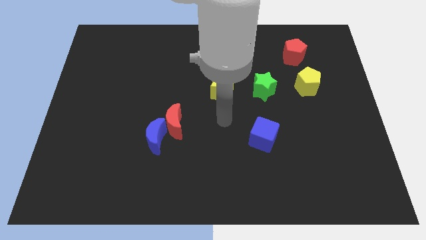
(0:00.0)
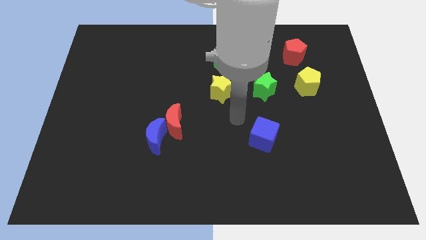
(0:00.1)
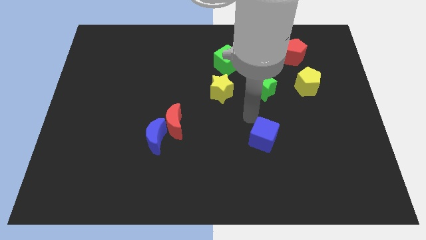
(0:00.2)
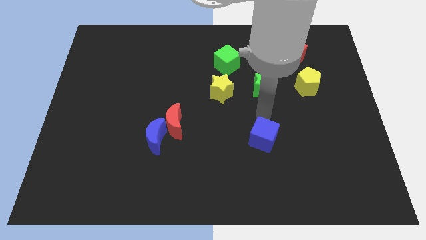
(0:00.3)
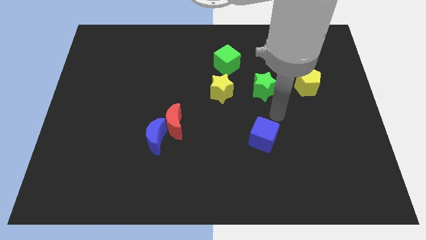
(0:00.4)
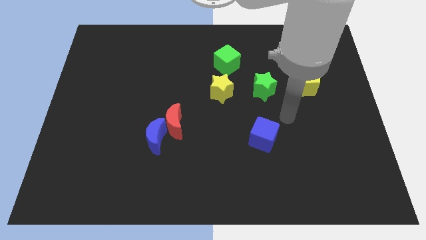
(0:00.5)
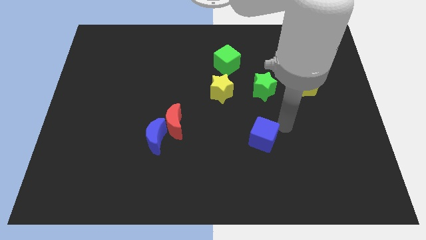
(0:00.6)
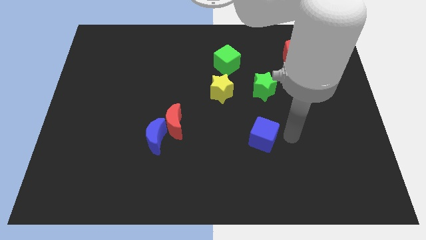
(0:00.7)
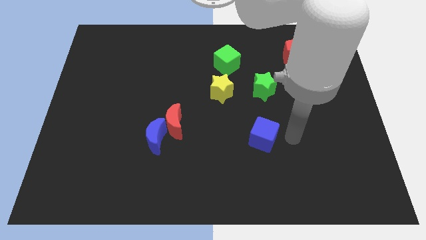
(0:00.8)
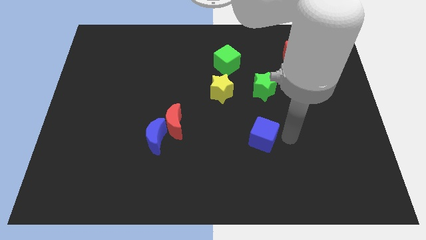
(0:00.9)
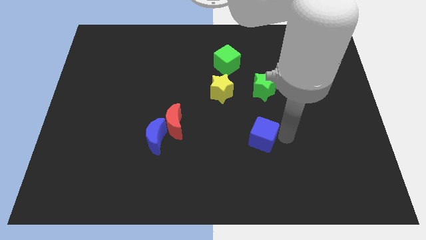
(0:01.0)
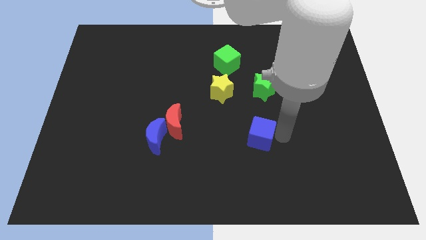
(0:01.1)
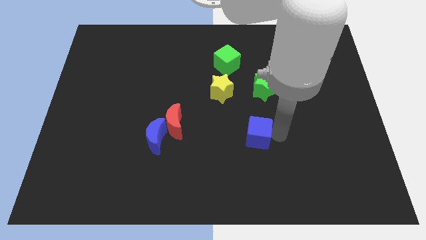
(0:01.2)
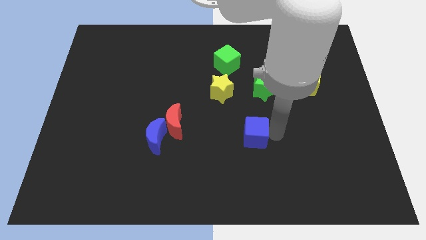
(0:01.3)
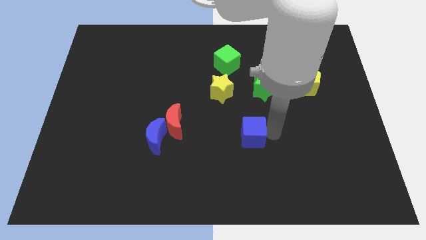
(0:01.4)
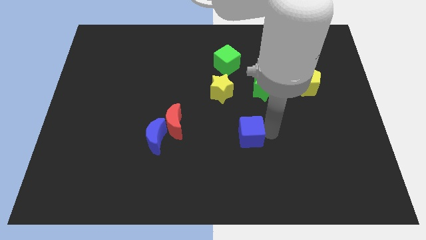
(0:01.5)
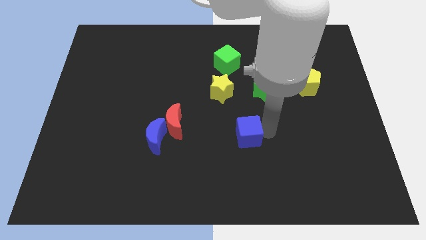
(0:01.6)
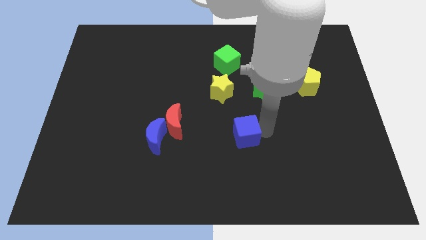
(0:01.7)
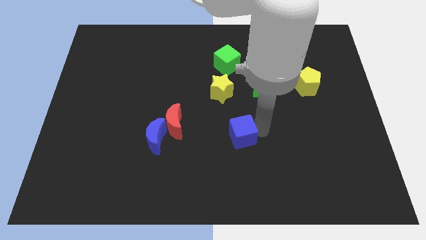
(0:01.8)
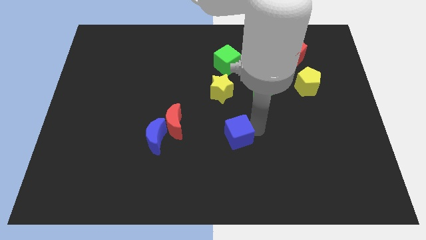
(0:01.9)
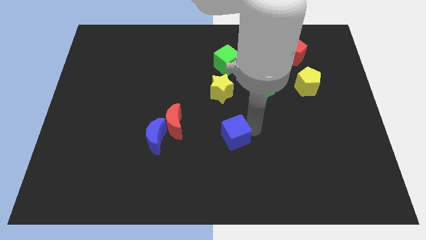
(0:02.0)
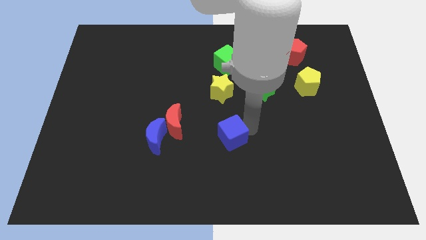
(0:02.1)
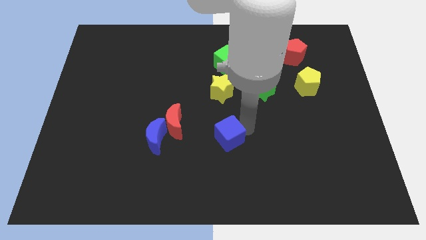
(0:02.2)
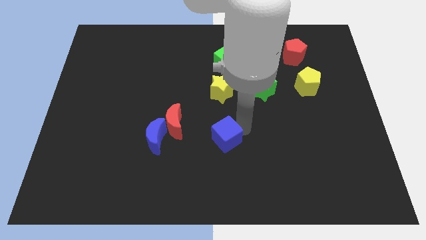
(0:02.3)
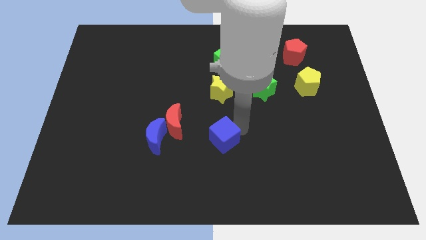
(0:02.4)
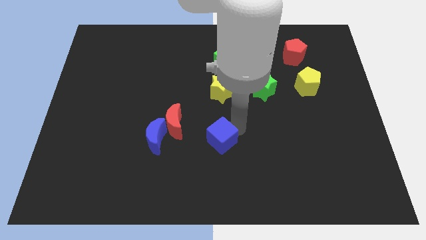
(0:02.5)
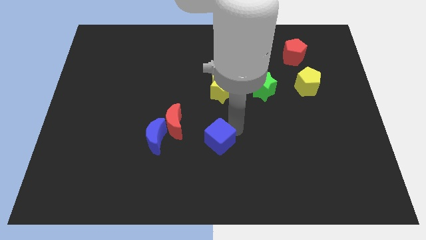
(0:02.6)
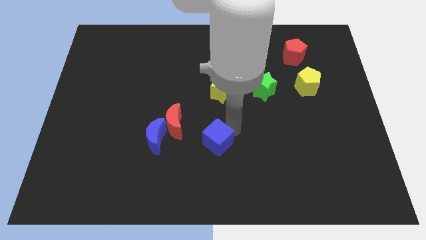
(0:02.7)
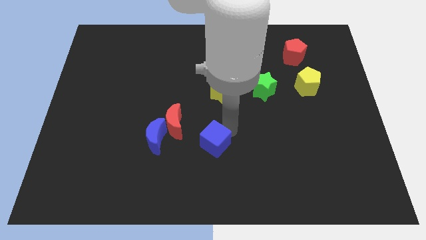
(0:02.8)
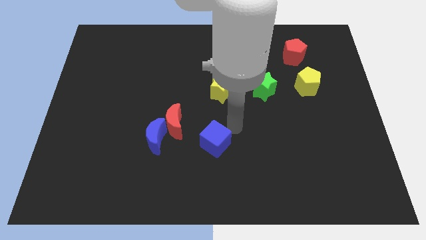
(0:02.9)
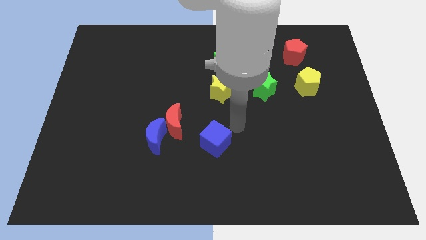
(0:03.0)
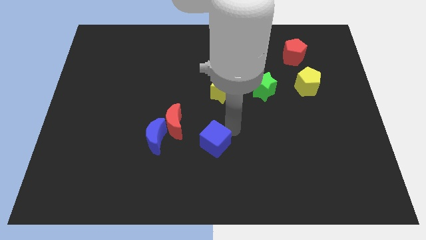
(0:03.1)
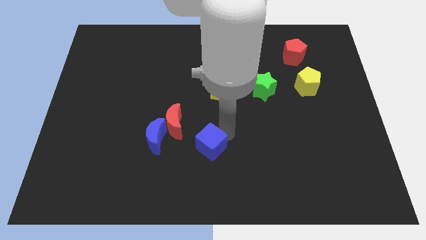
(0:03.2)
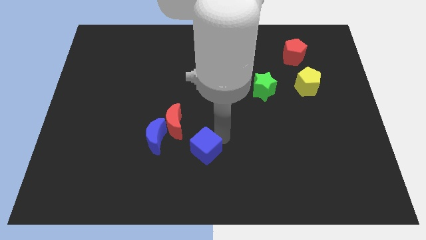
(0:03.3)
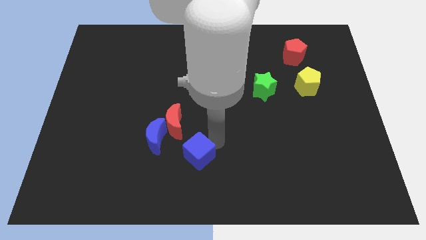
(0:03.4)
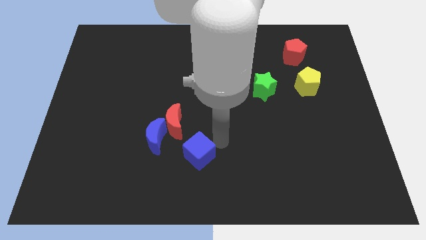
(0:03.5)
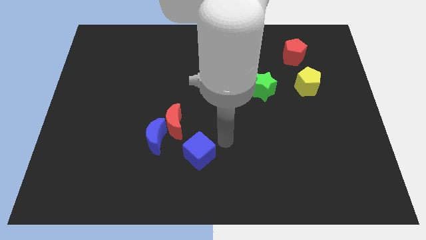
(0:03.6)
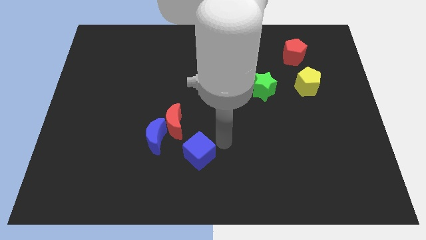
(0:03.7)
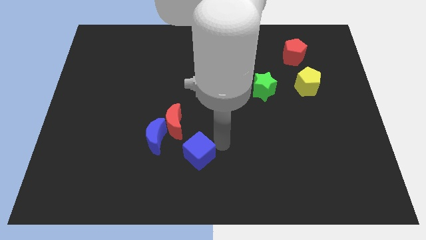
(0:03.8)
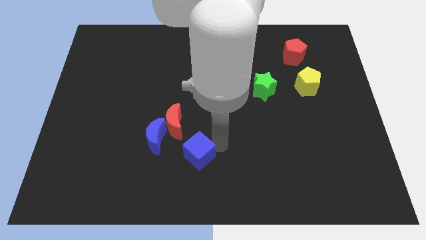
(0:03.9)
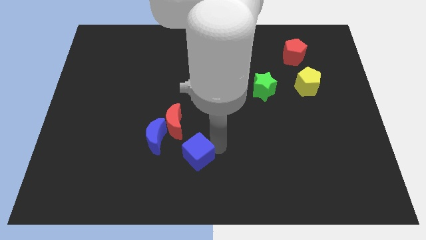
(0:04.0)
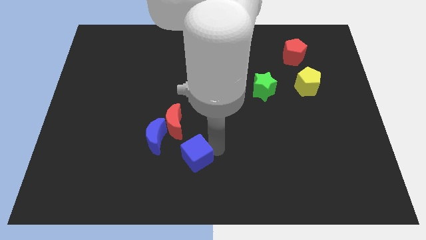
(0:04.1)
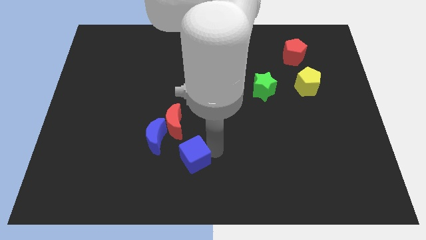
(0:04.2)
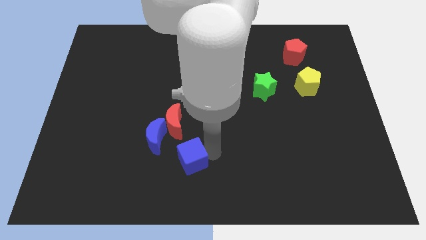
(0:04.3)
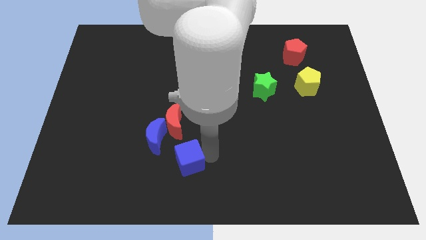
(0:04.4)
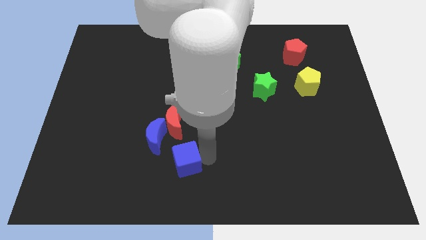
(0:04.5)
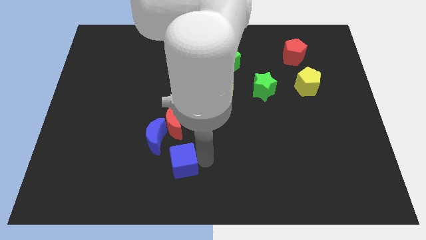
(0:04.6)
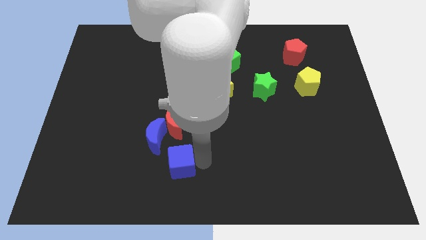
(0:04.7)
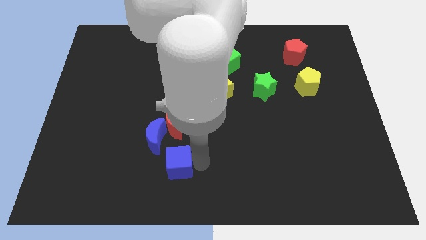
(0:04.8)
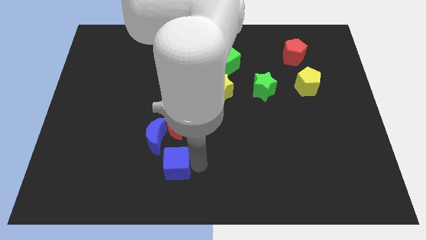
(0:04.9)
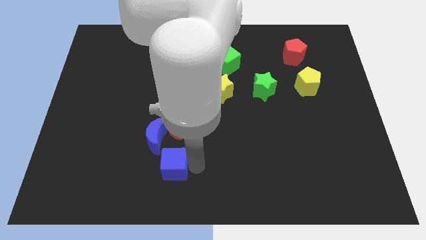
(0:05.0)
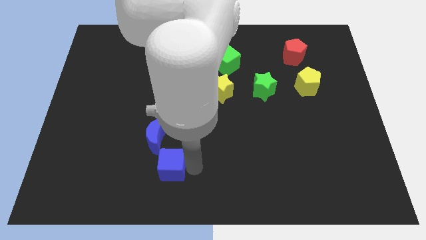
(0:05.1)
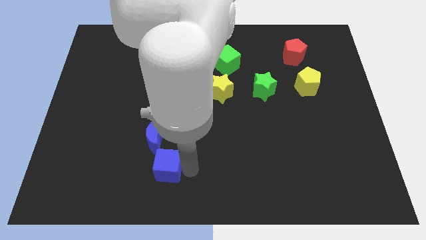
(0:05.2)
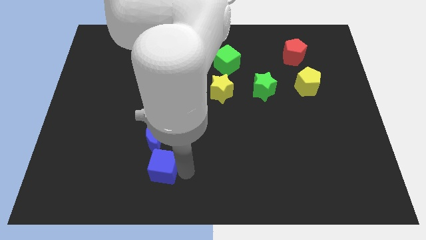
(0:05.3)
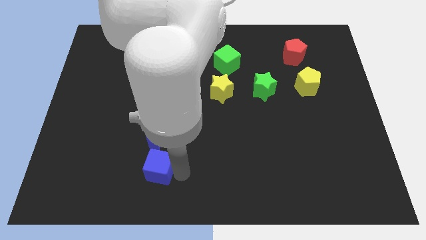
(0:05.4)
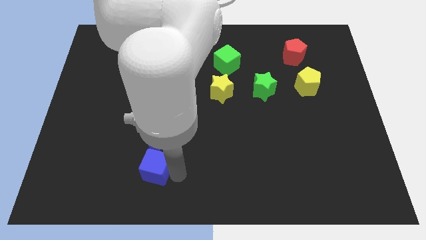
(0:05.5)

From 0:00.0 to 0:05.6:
move the blue cube left

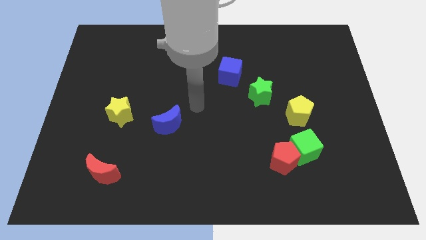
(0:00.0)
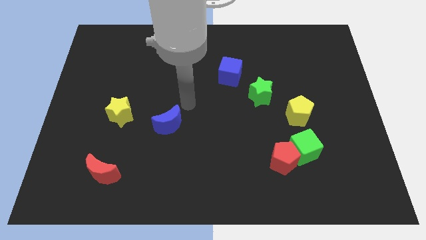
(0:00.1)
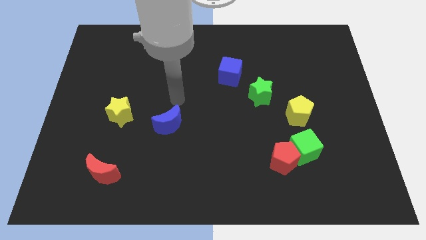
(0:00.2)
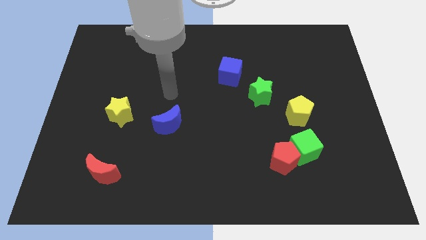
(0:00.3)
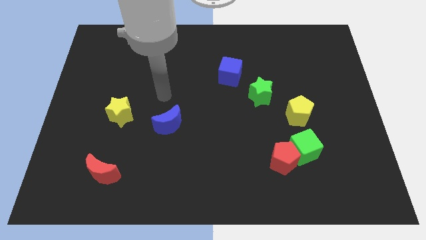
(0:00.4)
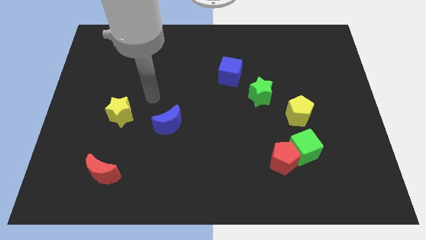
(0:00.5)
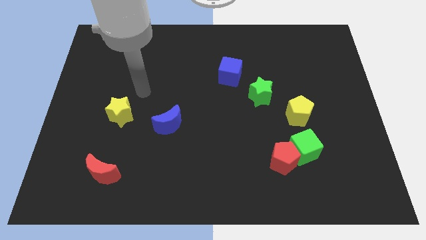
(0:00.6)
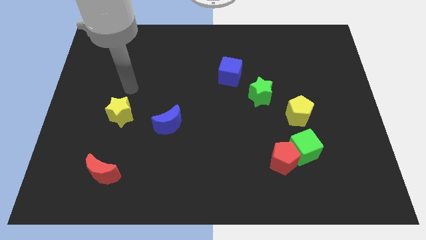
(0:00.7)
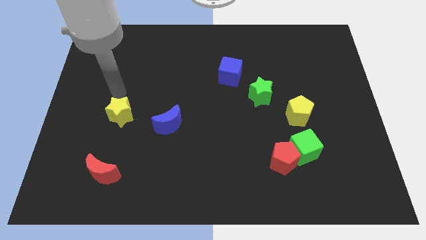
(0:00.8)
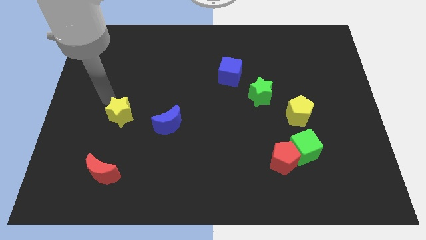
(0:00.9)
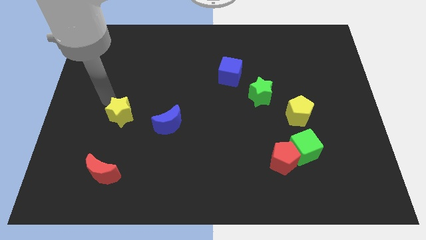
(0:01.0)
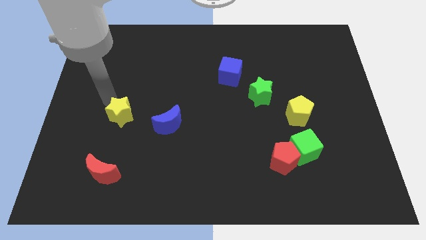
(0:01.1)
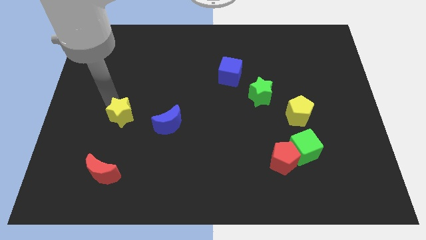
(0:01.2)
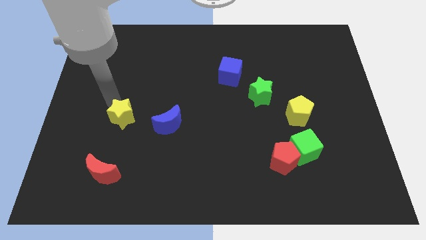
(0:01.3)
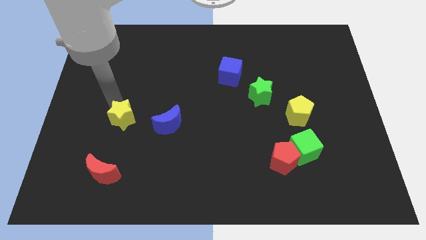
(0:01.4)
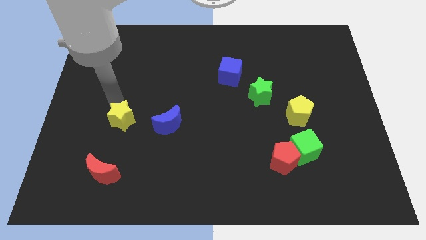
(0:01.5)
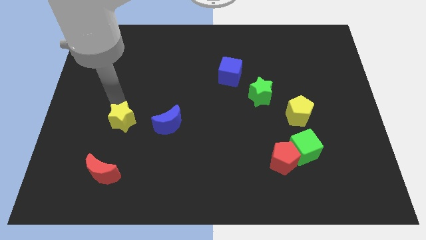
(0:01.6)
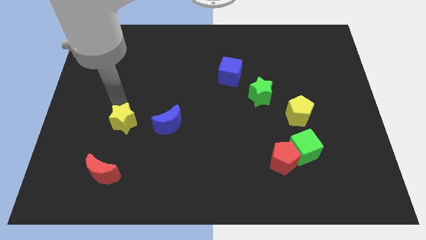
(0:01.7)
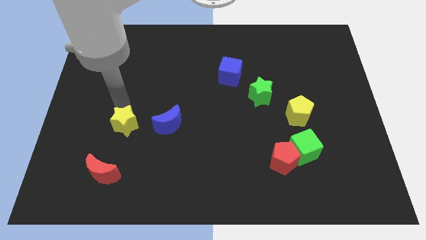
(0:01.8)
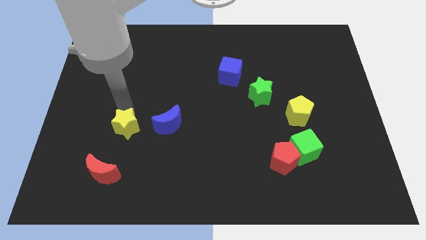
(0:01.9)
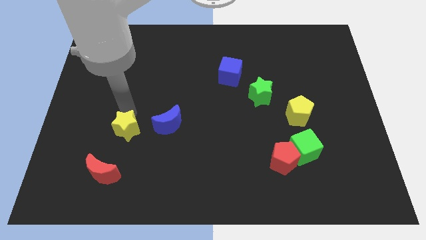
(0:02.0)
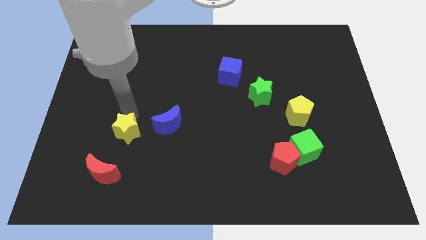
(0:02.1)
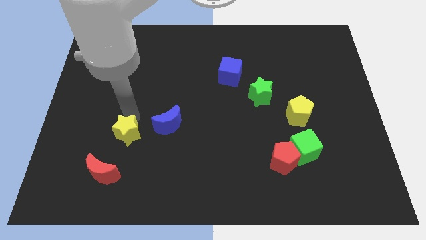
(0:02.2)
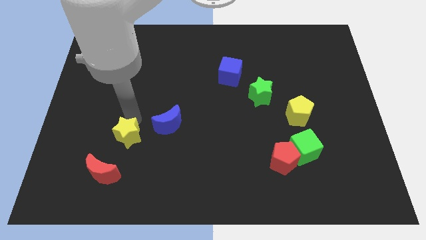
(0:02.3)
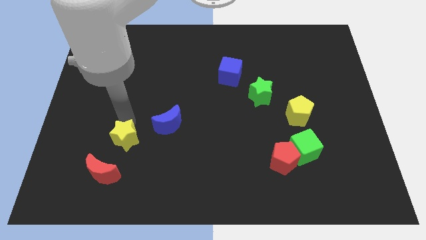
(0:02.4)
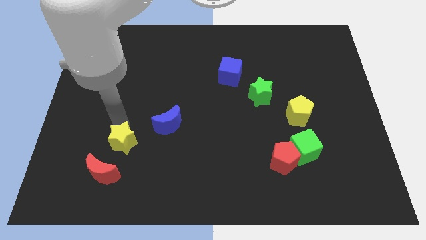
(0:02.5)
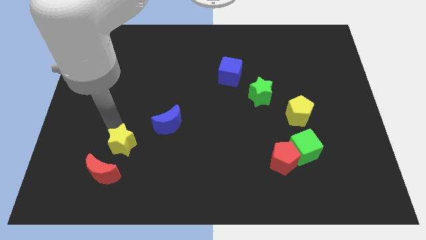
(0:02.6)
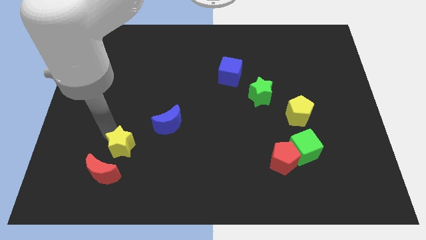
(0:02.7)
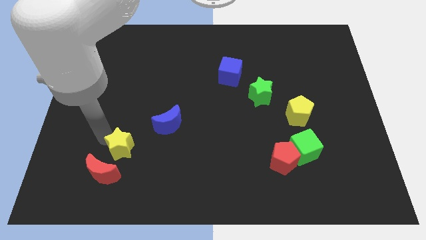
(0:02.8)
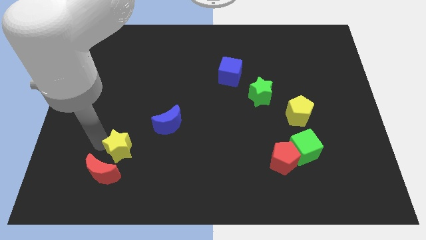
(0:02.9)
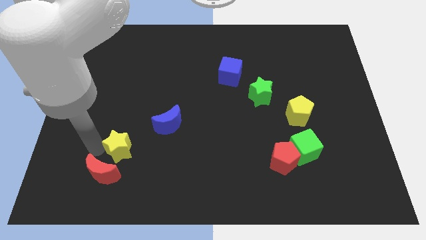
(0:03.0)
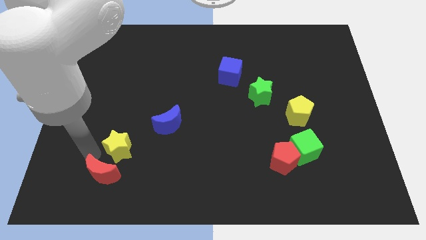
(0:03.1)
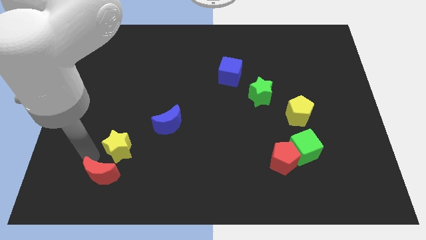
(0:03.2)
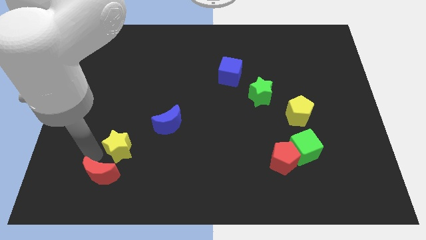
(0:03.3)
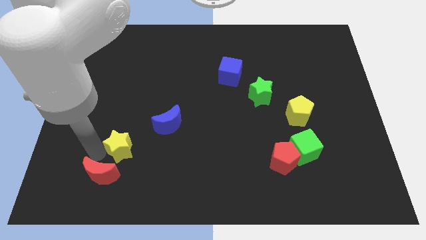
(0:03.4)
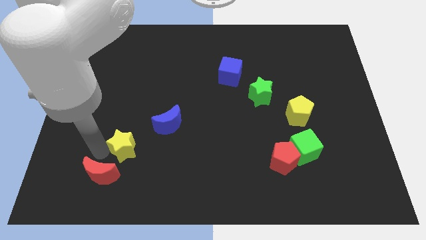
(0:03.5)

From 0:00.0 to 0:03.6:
push the yellow star slightly downwards and then right
